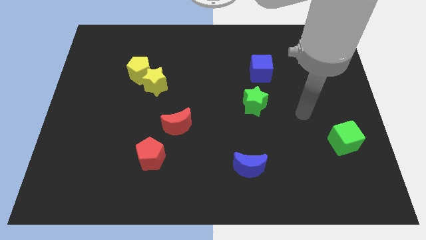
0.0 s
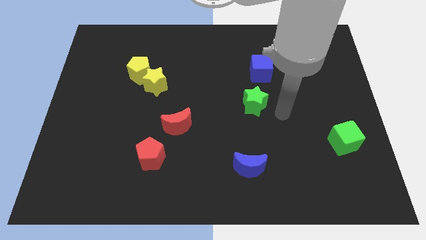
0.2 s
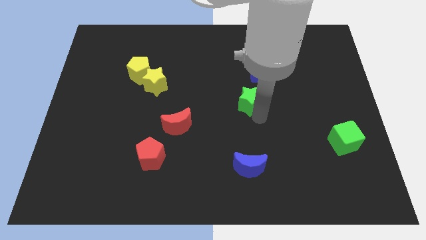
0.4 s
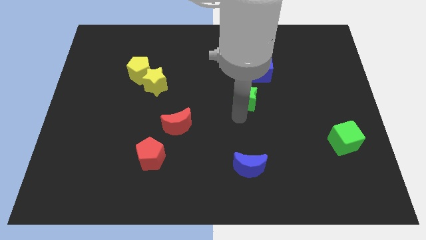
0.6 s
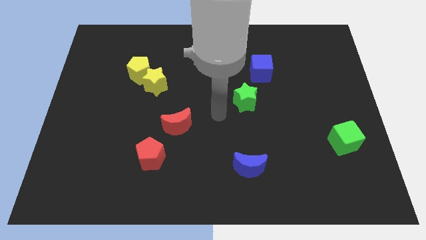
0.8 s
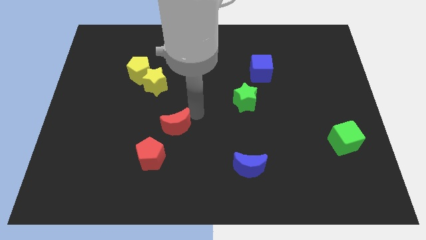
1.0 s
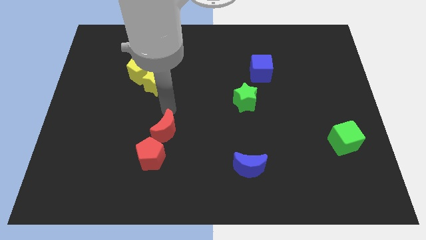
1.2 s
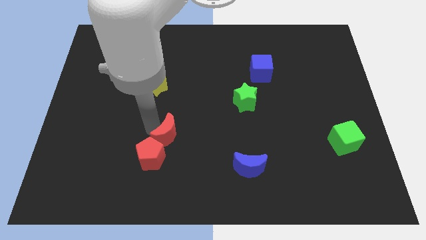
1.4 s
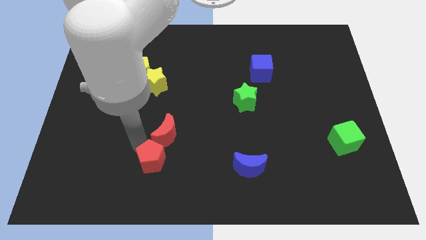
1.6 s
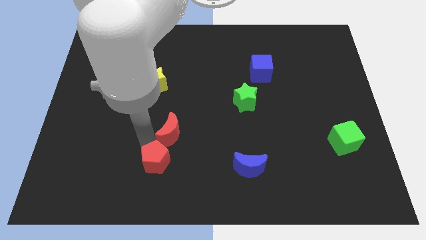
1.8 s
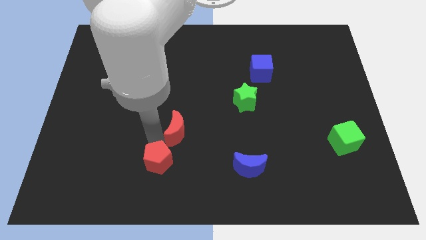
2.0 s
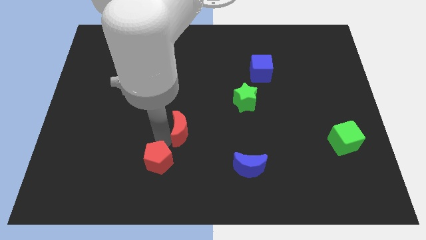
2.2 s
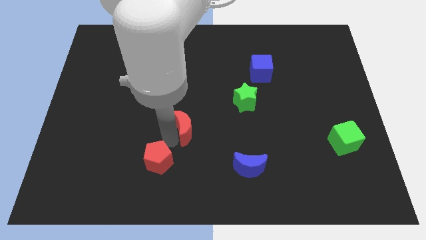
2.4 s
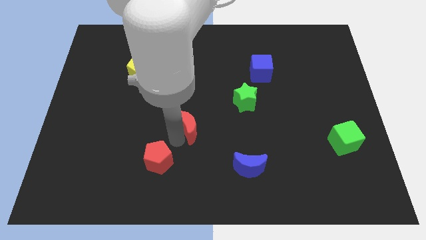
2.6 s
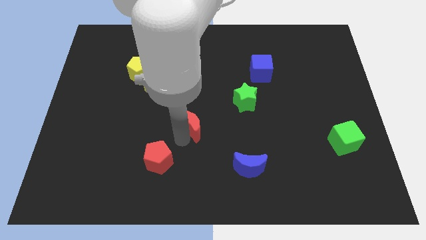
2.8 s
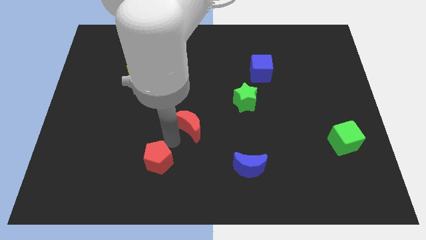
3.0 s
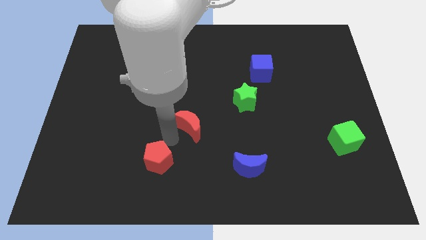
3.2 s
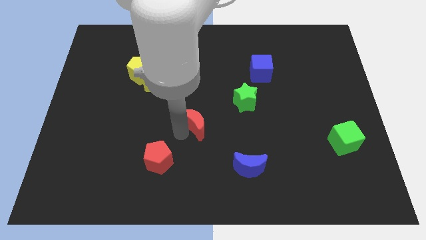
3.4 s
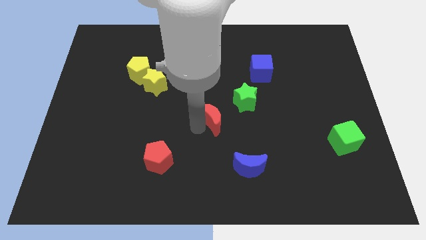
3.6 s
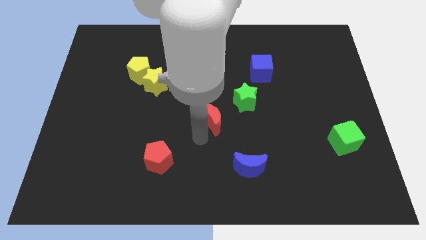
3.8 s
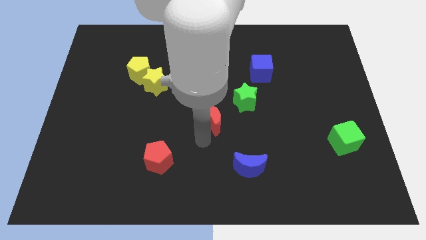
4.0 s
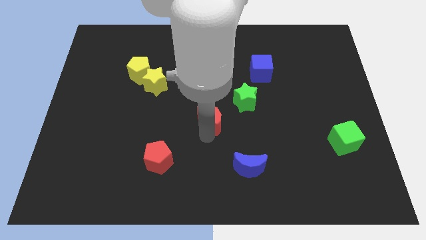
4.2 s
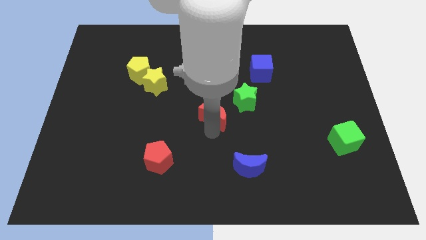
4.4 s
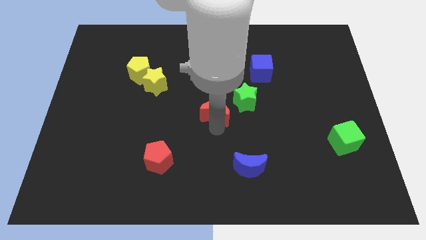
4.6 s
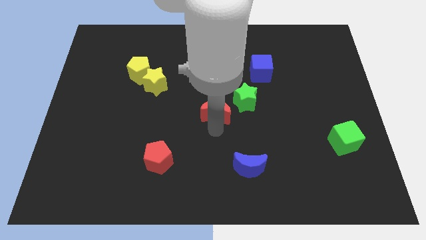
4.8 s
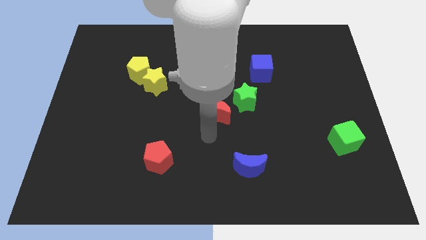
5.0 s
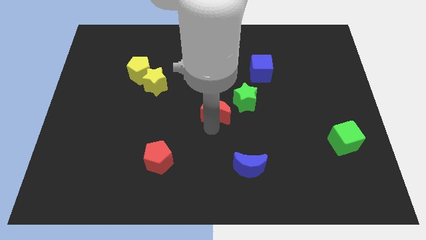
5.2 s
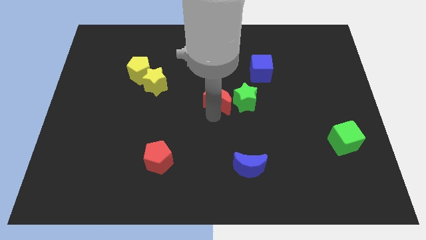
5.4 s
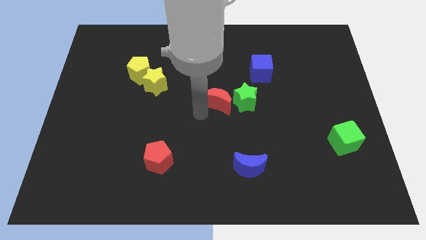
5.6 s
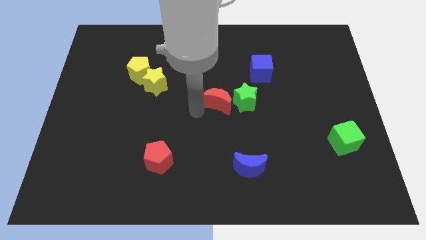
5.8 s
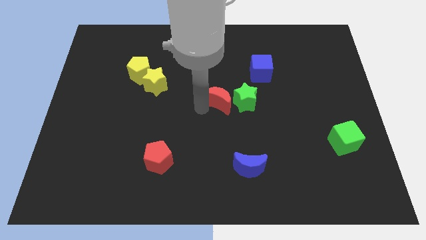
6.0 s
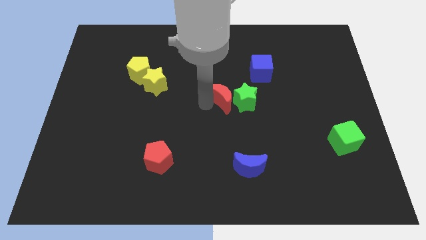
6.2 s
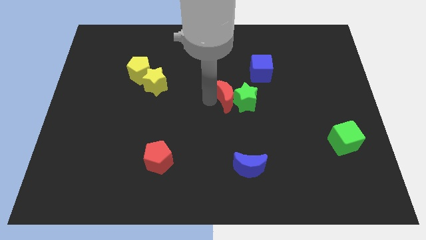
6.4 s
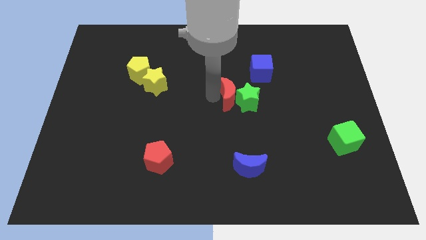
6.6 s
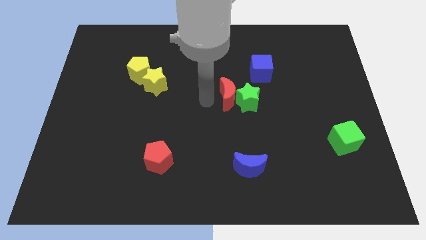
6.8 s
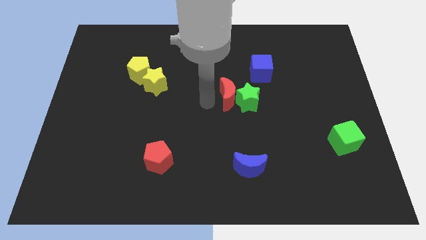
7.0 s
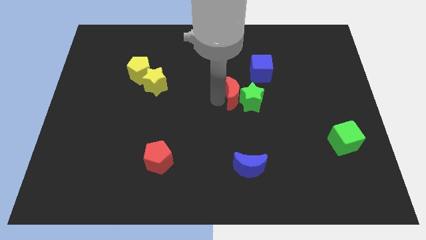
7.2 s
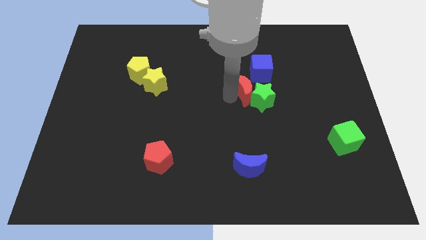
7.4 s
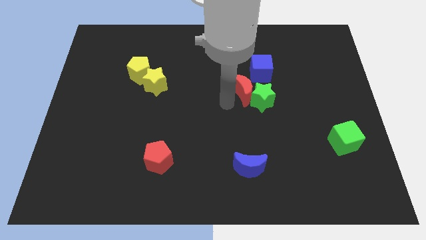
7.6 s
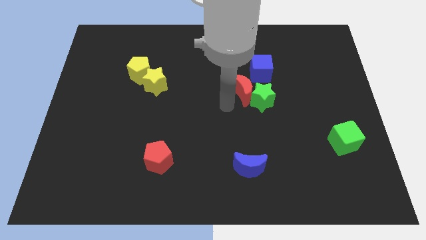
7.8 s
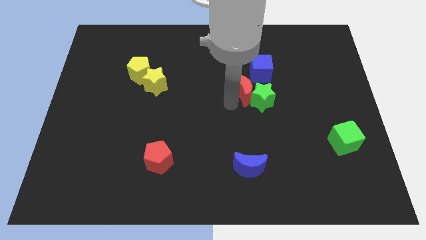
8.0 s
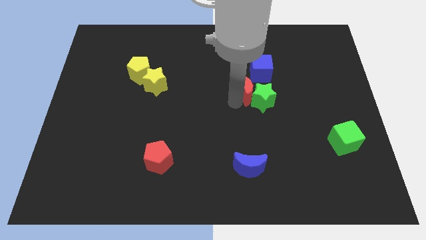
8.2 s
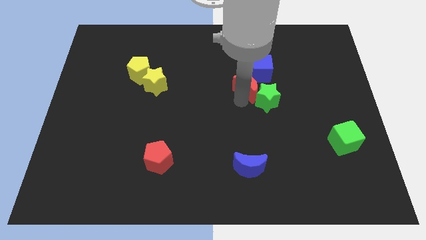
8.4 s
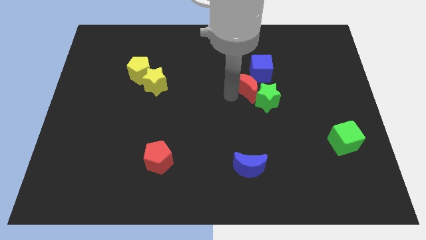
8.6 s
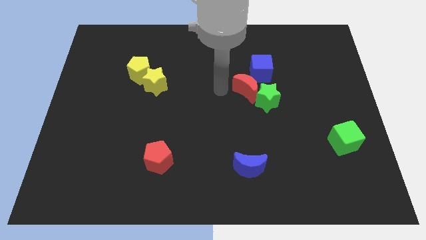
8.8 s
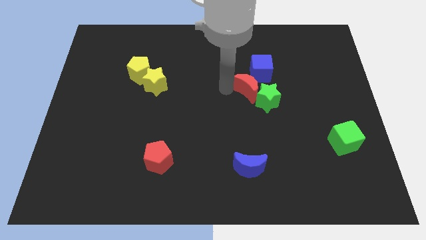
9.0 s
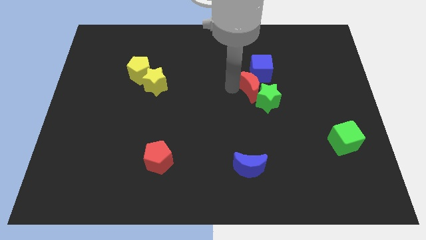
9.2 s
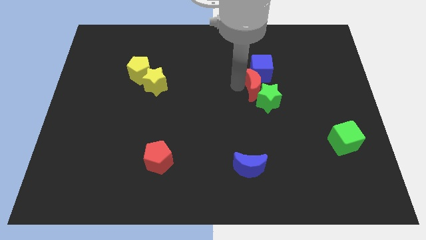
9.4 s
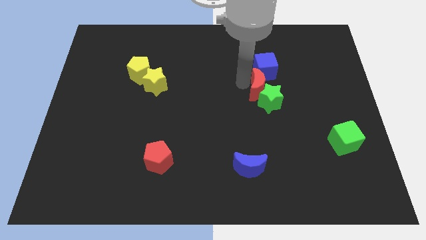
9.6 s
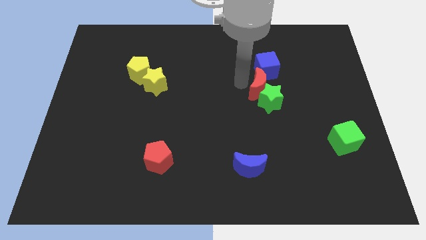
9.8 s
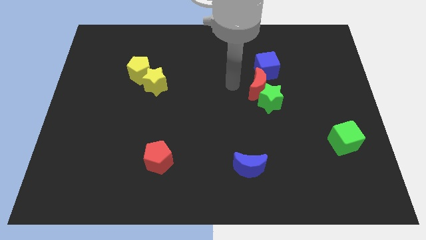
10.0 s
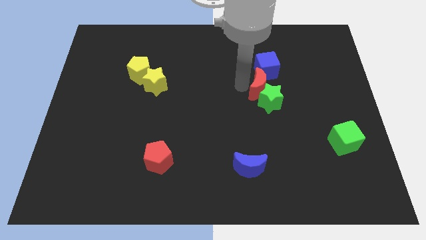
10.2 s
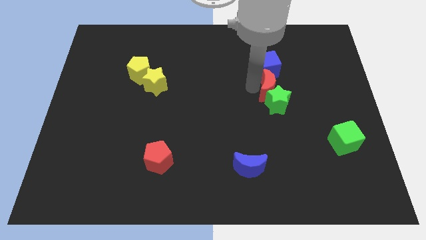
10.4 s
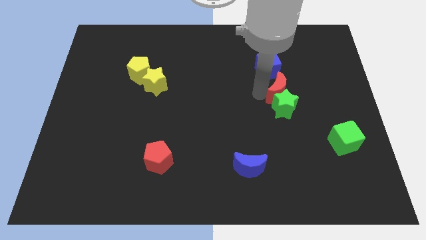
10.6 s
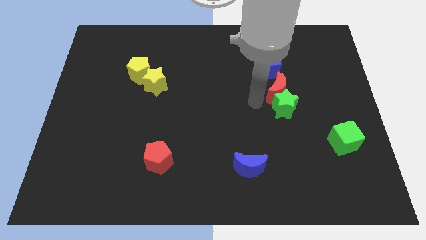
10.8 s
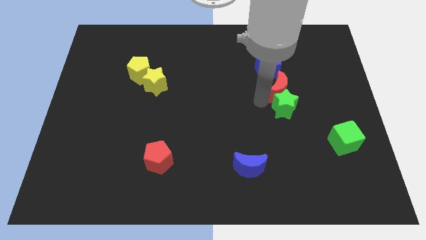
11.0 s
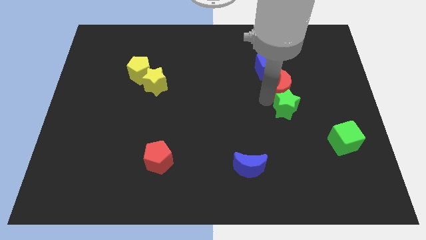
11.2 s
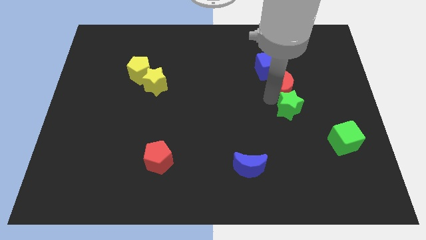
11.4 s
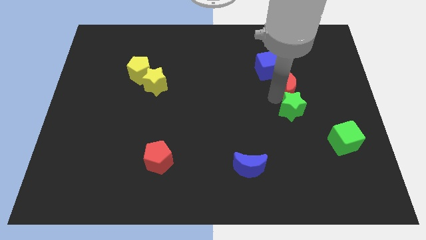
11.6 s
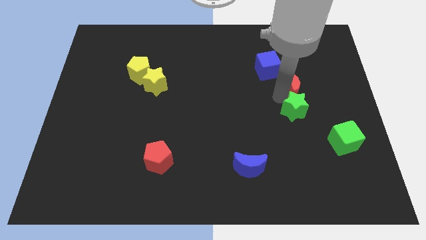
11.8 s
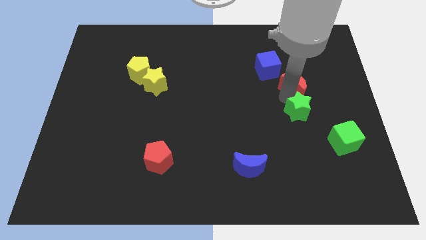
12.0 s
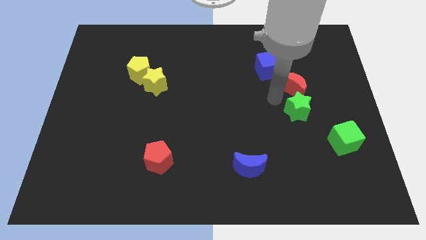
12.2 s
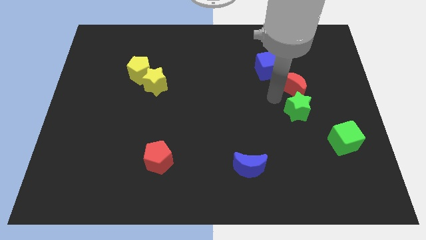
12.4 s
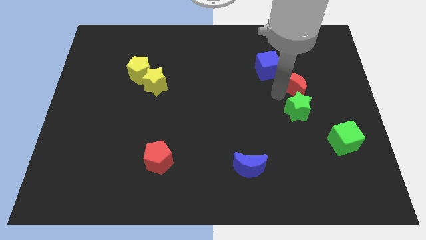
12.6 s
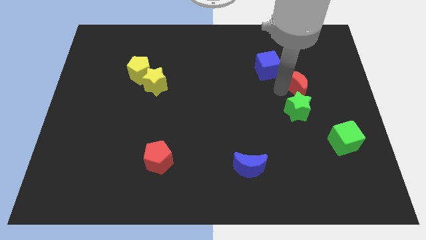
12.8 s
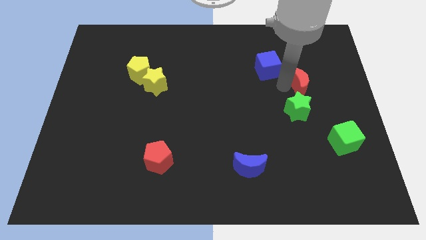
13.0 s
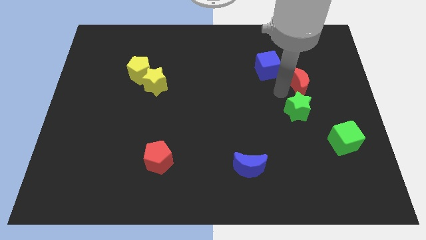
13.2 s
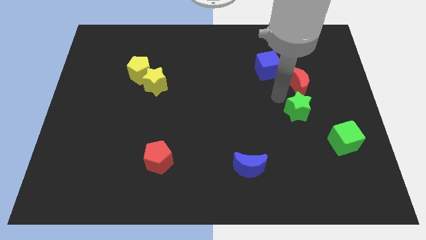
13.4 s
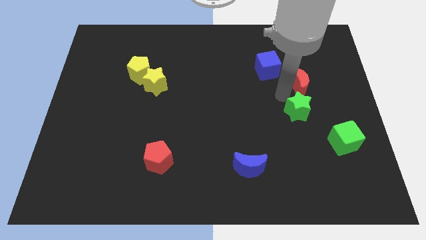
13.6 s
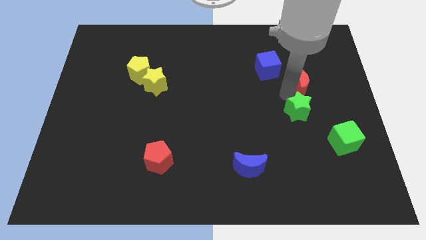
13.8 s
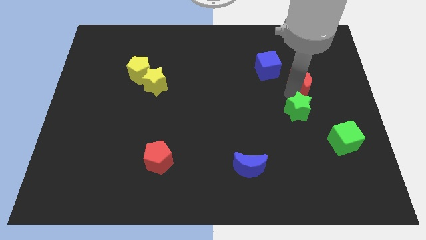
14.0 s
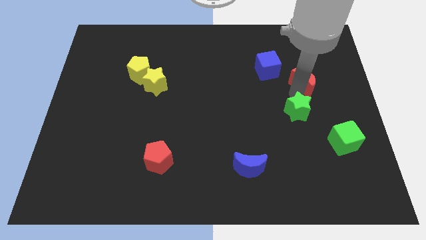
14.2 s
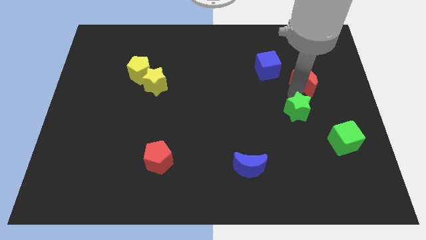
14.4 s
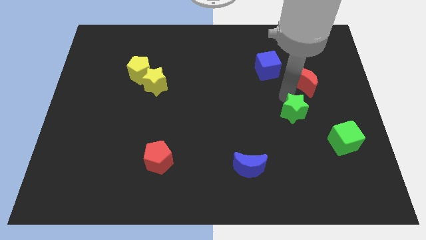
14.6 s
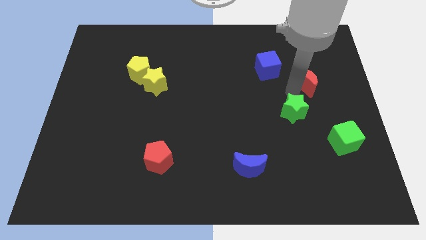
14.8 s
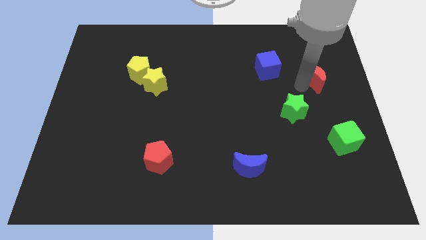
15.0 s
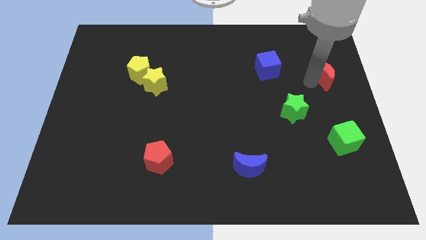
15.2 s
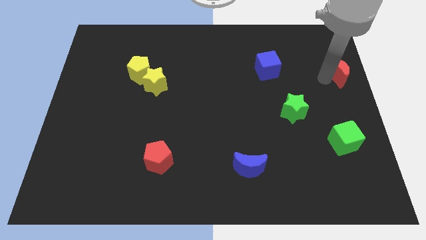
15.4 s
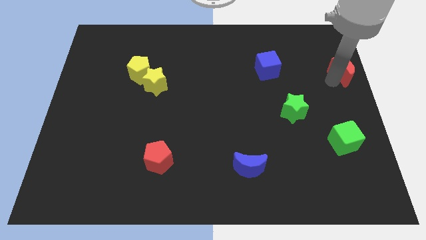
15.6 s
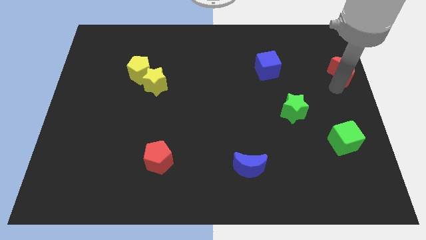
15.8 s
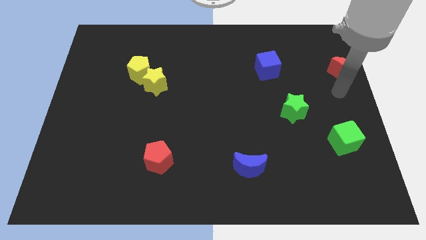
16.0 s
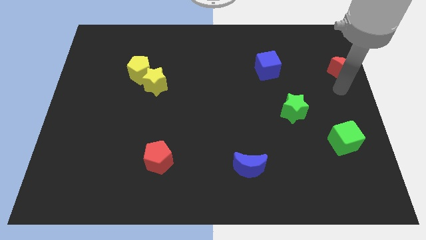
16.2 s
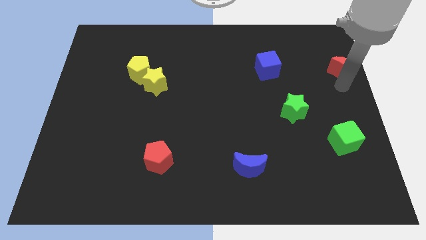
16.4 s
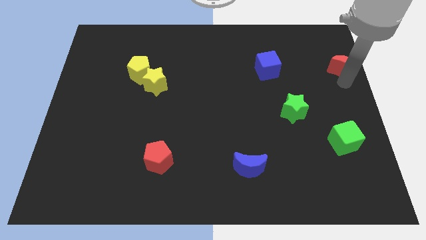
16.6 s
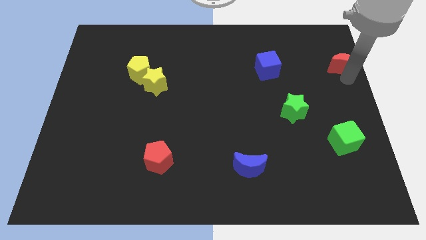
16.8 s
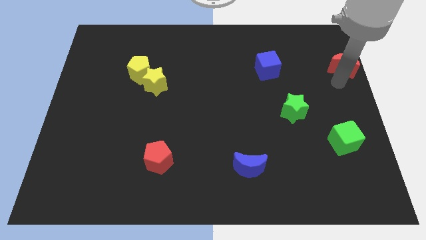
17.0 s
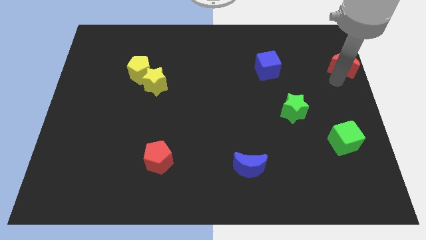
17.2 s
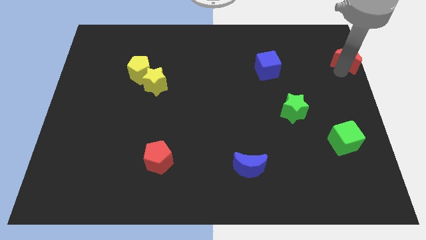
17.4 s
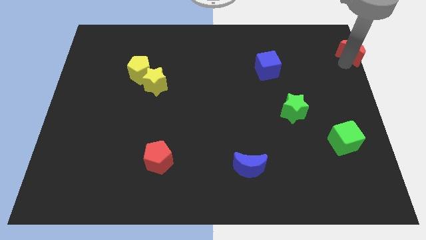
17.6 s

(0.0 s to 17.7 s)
slide the red moon to the upper right corner
